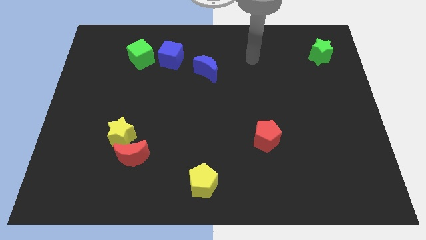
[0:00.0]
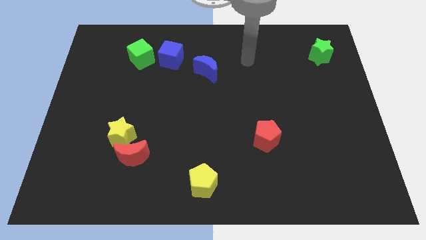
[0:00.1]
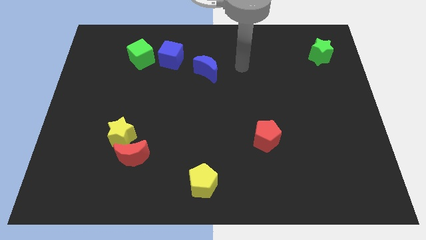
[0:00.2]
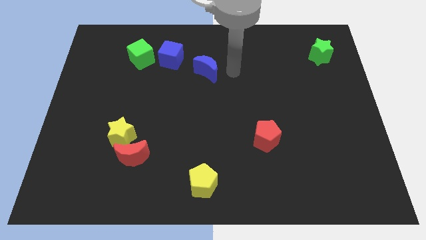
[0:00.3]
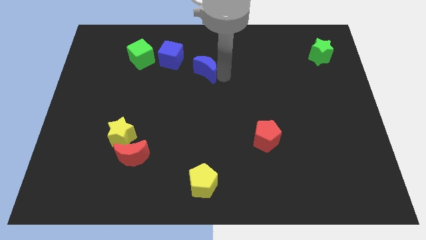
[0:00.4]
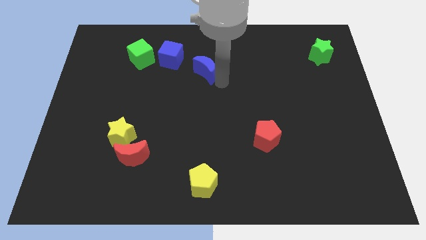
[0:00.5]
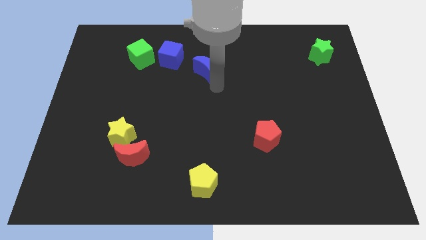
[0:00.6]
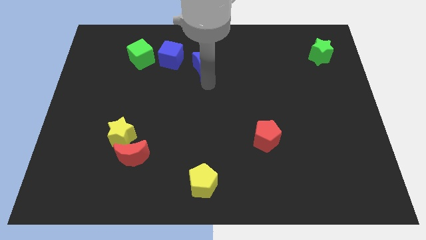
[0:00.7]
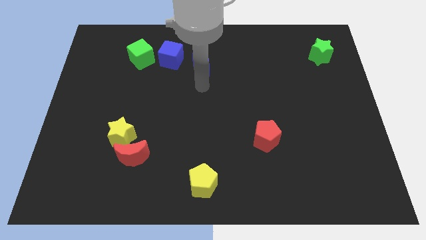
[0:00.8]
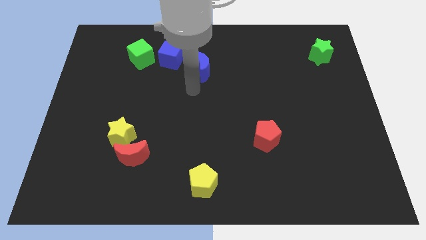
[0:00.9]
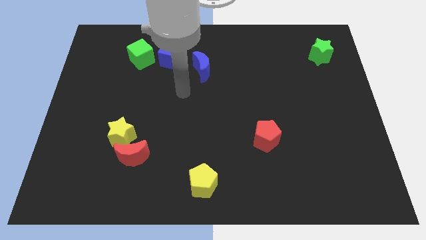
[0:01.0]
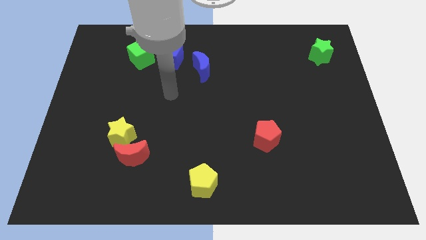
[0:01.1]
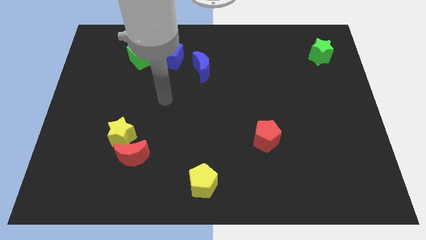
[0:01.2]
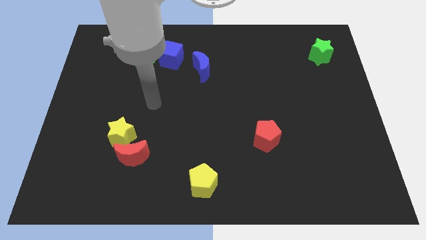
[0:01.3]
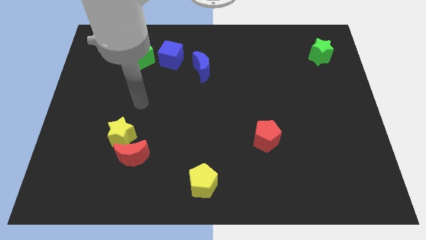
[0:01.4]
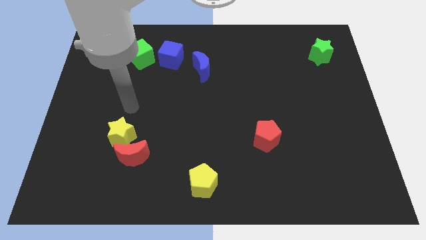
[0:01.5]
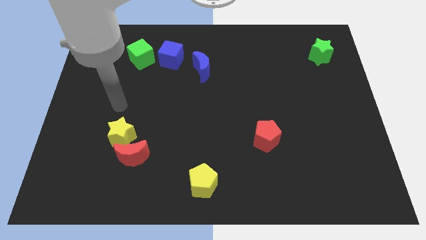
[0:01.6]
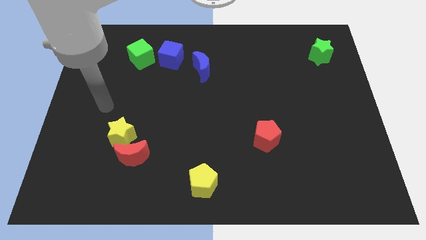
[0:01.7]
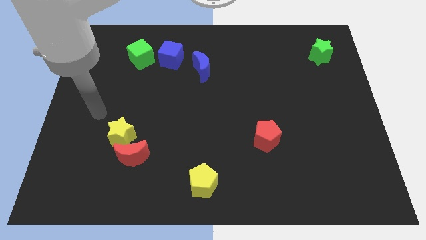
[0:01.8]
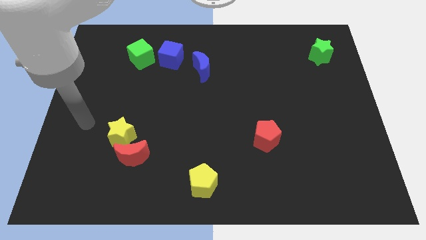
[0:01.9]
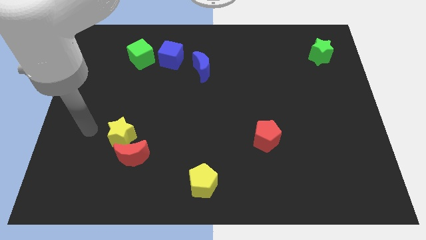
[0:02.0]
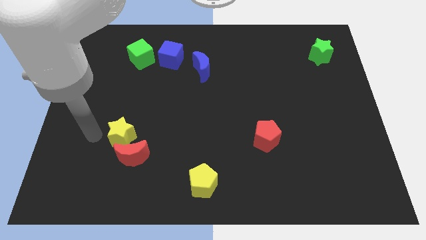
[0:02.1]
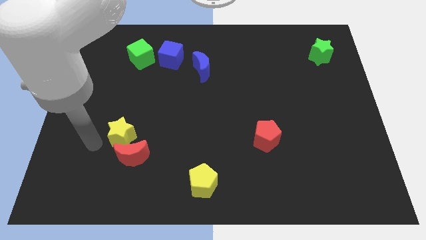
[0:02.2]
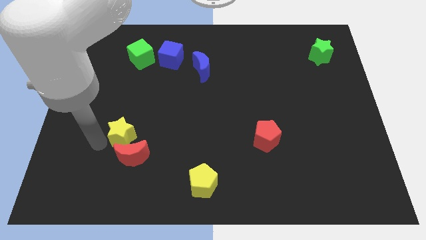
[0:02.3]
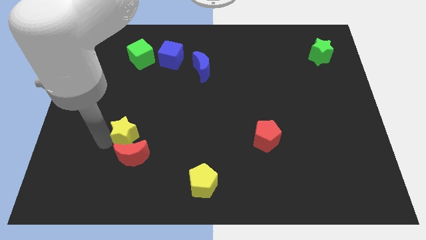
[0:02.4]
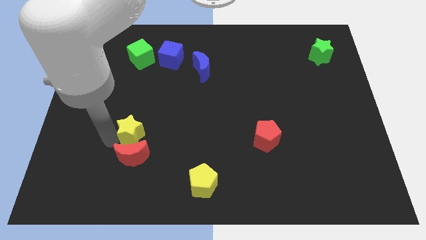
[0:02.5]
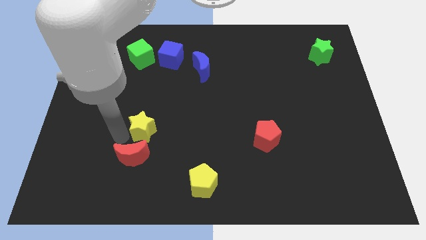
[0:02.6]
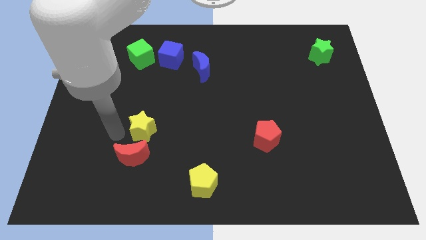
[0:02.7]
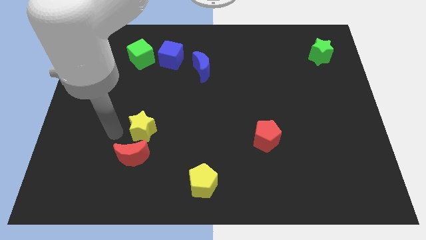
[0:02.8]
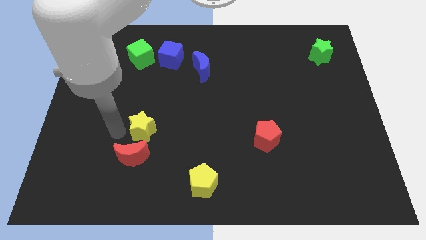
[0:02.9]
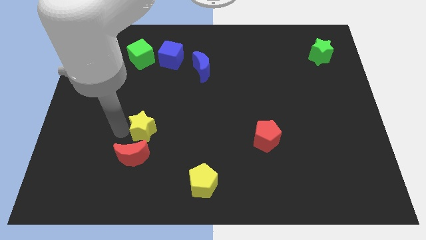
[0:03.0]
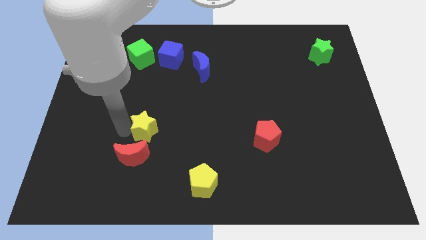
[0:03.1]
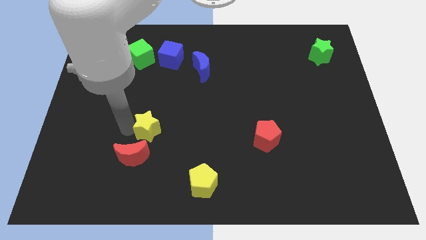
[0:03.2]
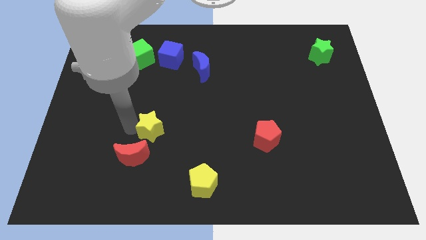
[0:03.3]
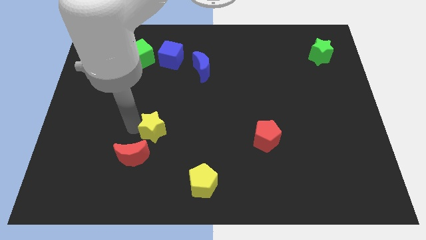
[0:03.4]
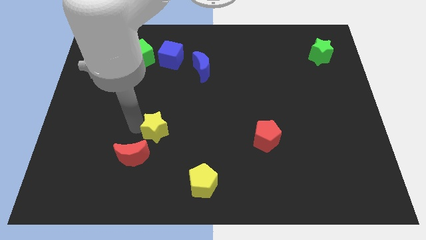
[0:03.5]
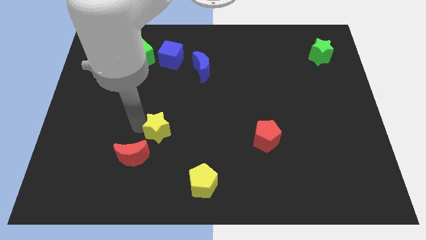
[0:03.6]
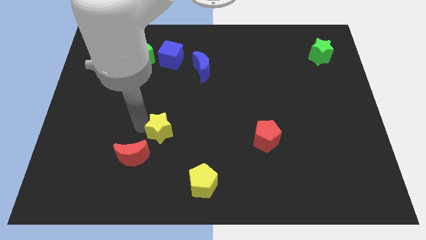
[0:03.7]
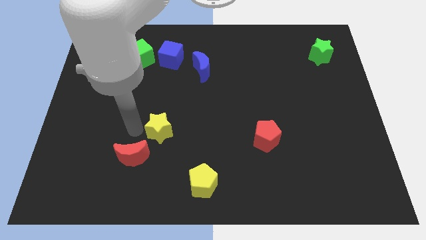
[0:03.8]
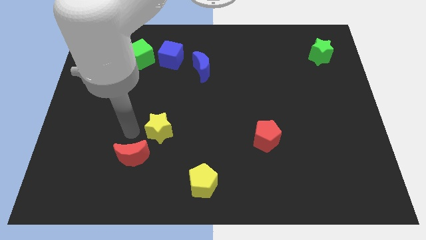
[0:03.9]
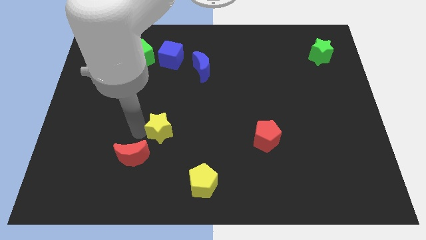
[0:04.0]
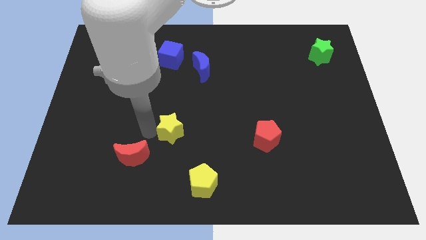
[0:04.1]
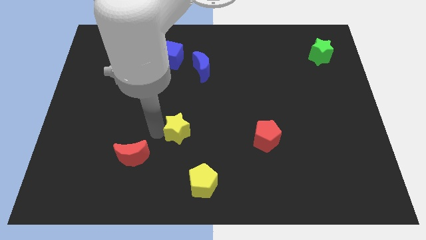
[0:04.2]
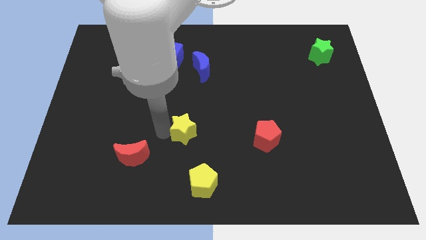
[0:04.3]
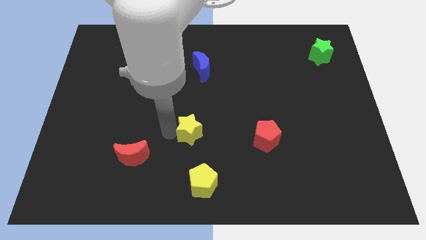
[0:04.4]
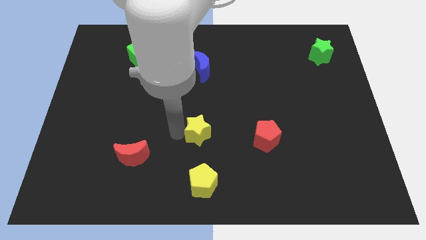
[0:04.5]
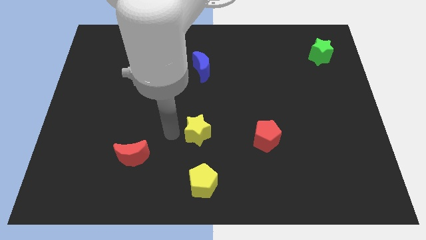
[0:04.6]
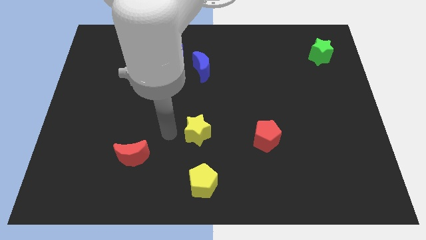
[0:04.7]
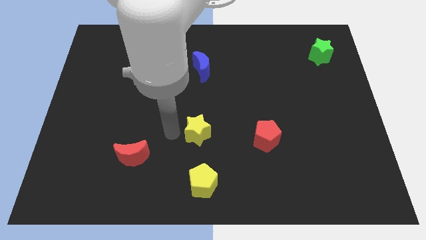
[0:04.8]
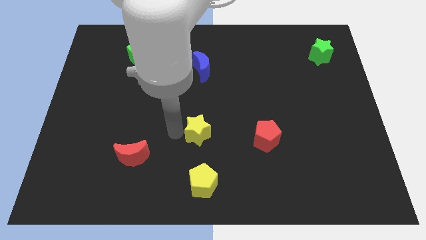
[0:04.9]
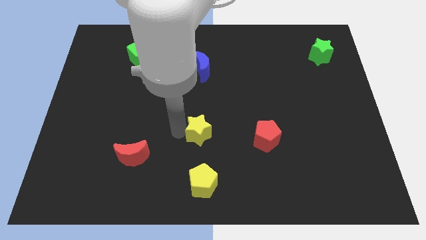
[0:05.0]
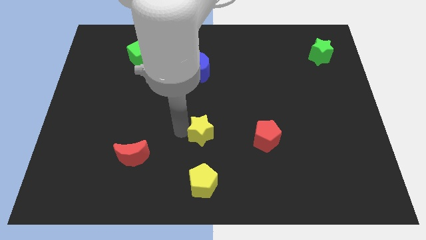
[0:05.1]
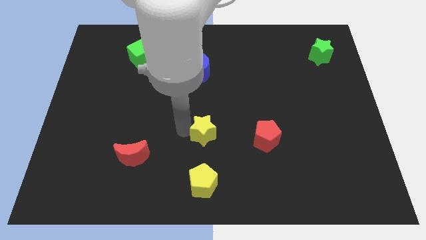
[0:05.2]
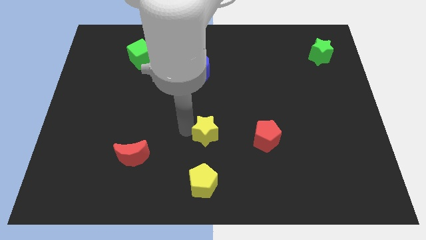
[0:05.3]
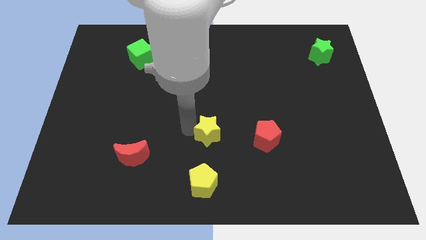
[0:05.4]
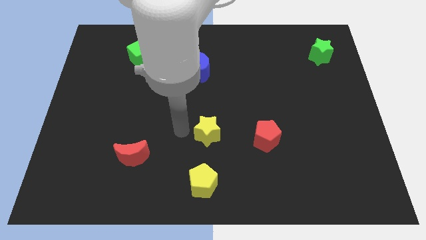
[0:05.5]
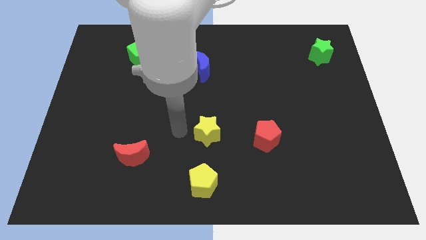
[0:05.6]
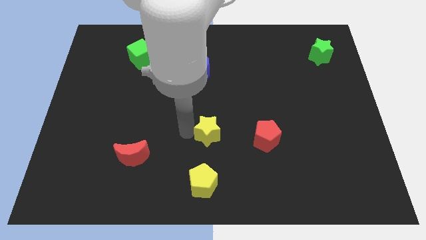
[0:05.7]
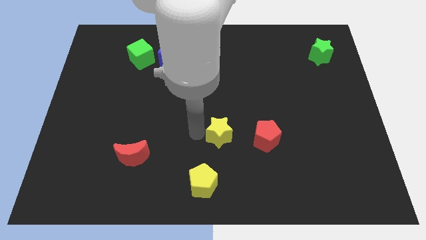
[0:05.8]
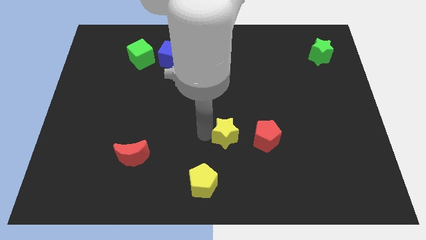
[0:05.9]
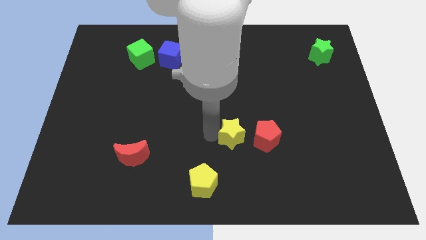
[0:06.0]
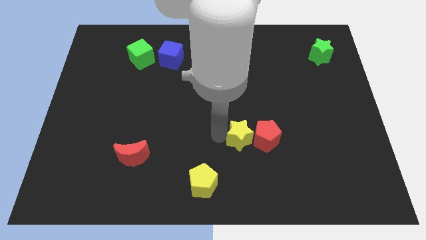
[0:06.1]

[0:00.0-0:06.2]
move the yellow star close to the red pentagon
